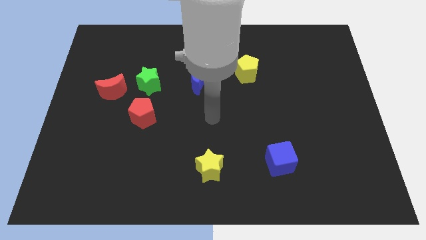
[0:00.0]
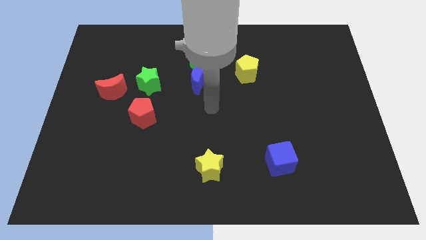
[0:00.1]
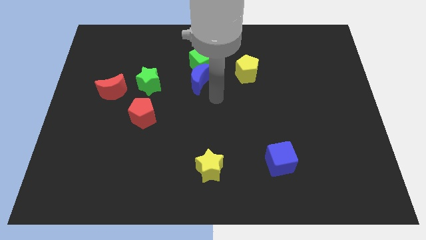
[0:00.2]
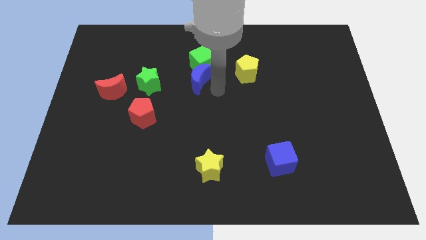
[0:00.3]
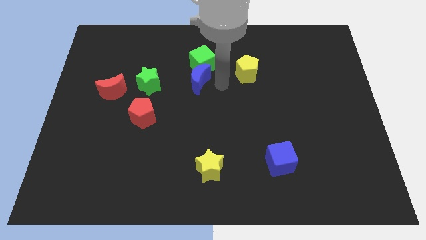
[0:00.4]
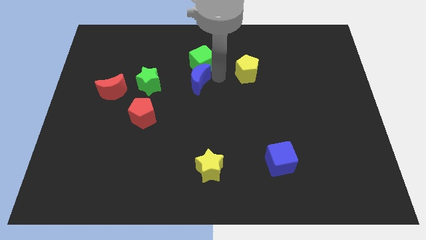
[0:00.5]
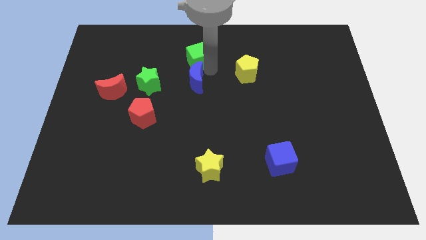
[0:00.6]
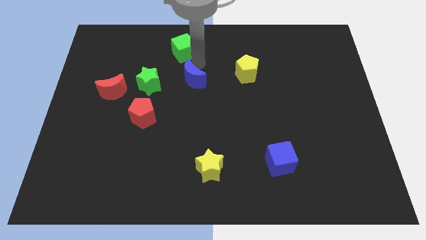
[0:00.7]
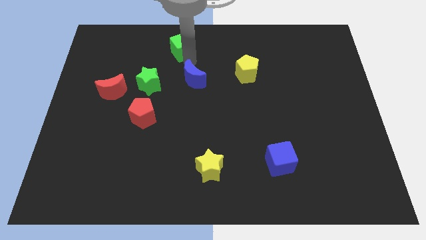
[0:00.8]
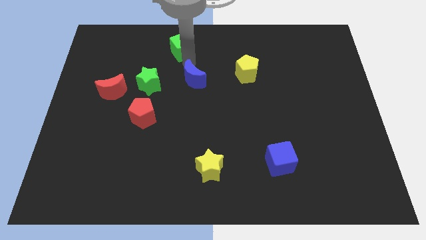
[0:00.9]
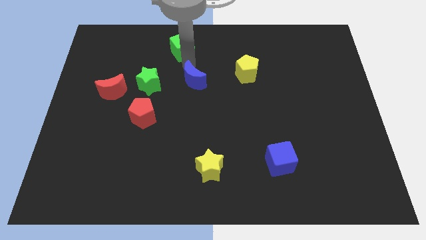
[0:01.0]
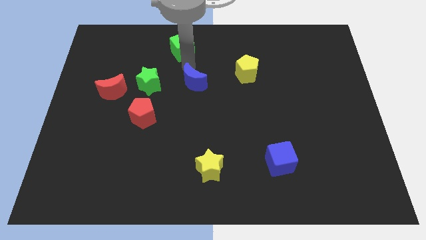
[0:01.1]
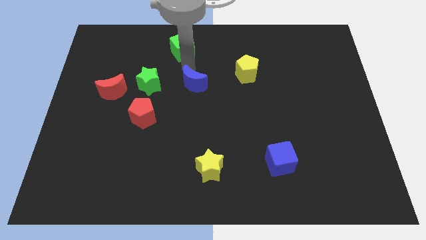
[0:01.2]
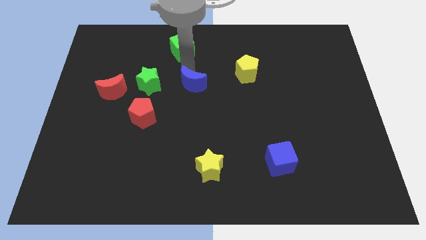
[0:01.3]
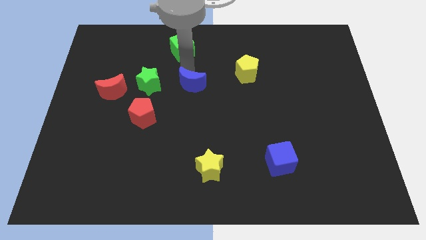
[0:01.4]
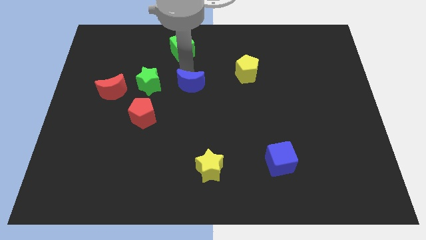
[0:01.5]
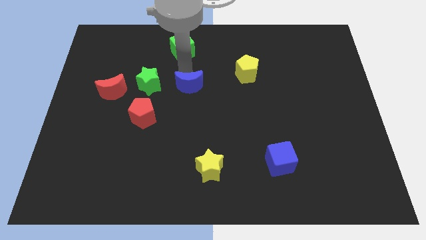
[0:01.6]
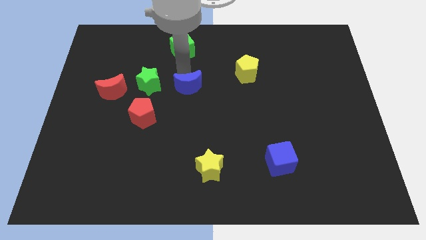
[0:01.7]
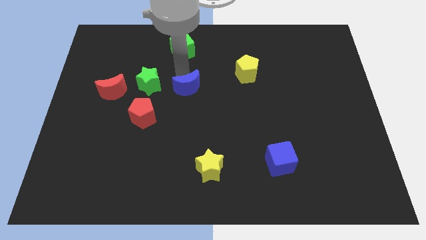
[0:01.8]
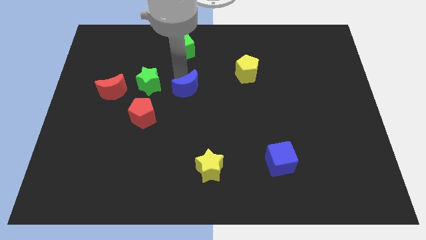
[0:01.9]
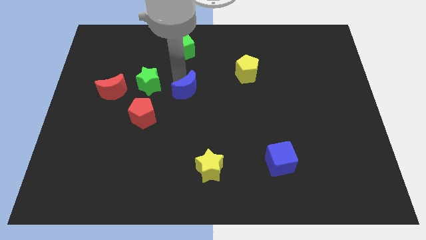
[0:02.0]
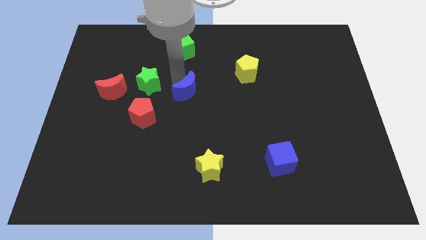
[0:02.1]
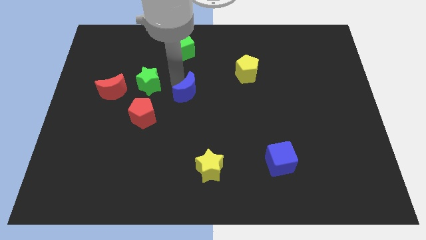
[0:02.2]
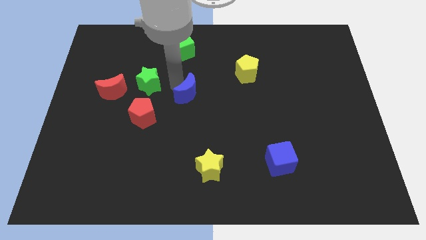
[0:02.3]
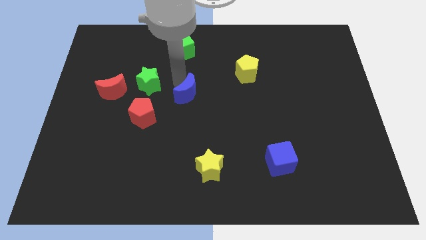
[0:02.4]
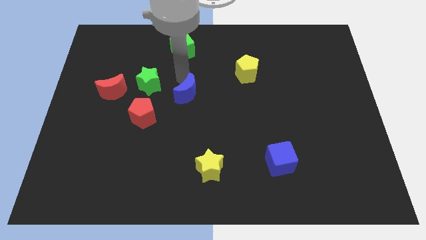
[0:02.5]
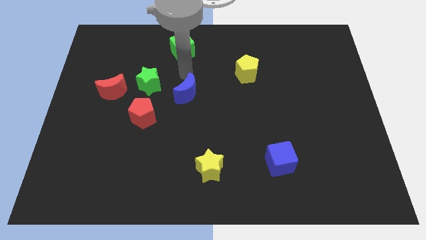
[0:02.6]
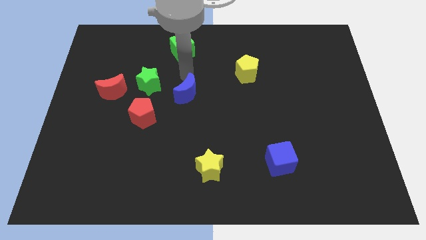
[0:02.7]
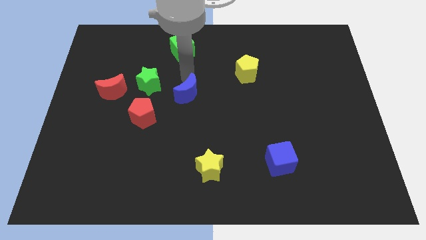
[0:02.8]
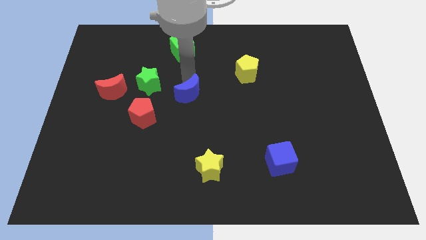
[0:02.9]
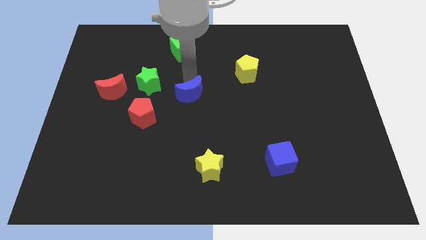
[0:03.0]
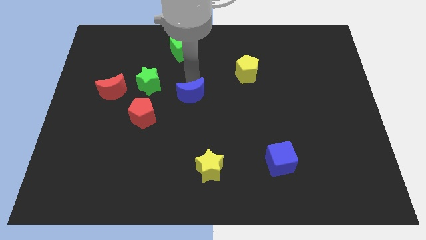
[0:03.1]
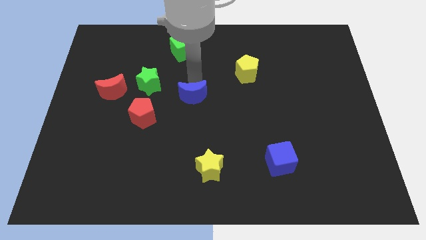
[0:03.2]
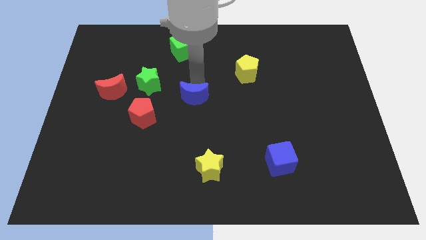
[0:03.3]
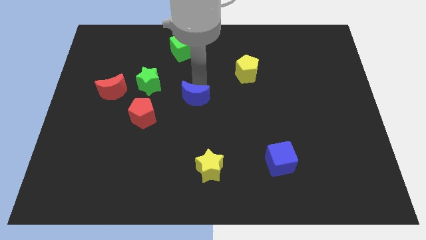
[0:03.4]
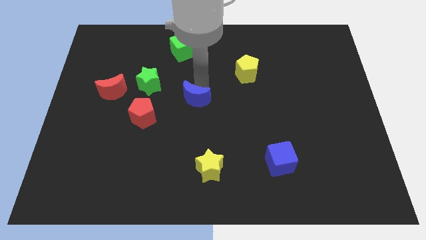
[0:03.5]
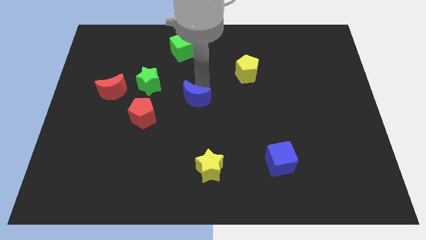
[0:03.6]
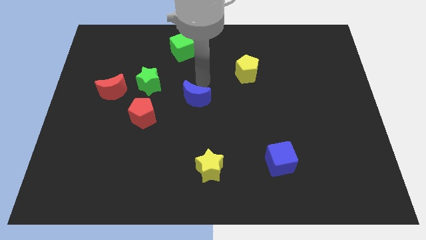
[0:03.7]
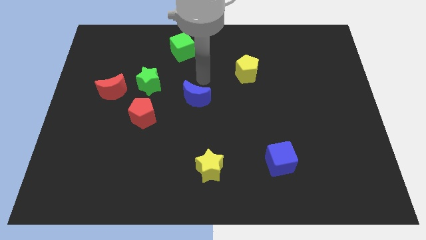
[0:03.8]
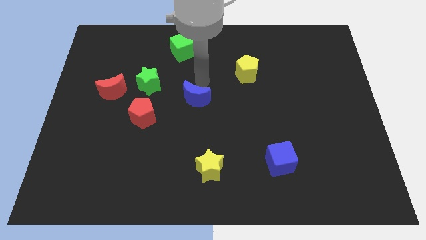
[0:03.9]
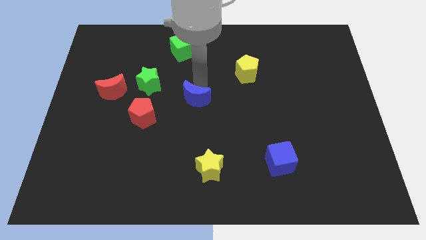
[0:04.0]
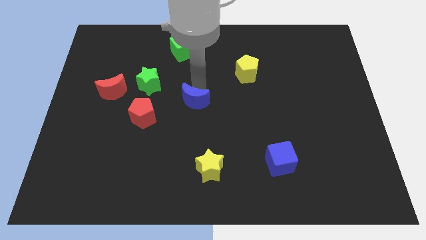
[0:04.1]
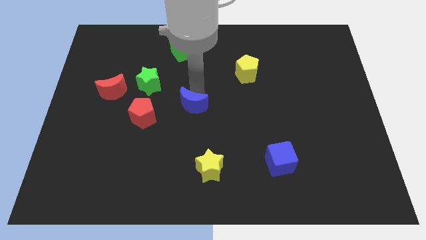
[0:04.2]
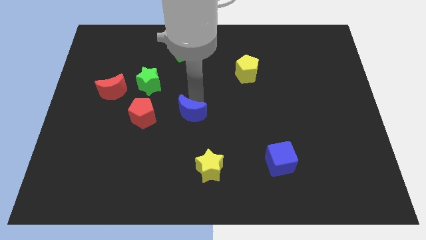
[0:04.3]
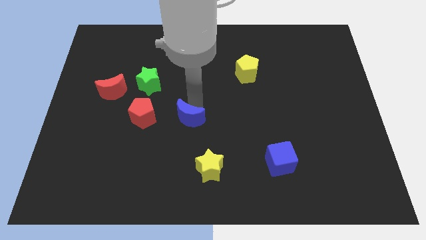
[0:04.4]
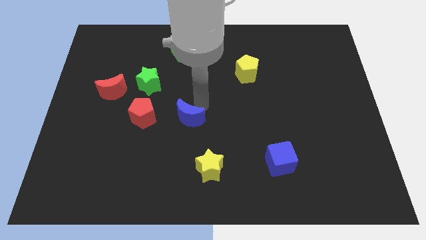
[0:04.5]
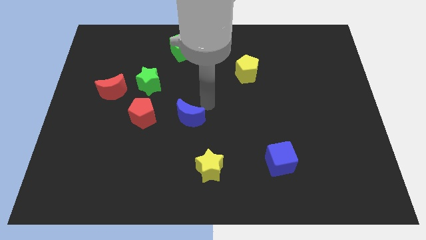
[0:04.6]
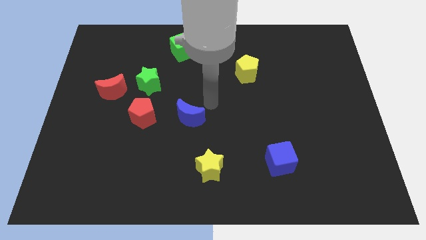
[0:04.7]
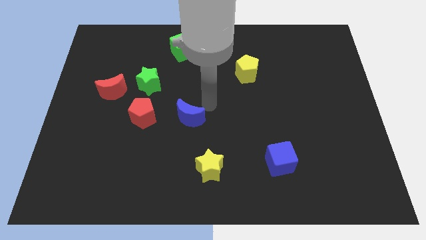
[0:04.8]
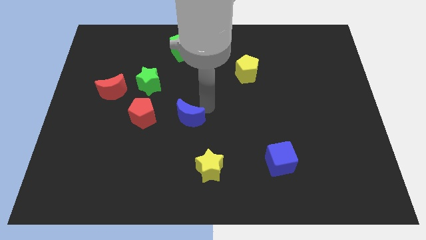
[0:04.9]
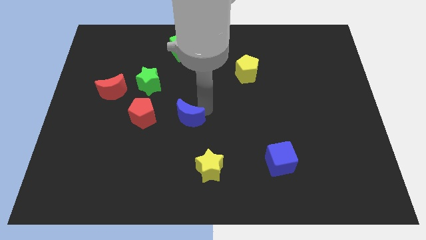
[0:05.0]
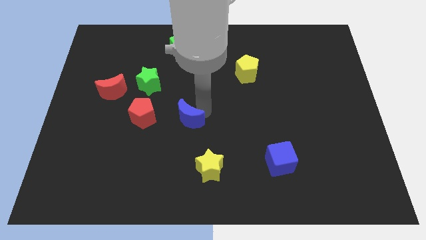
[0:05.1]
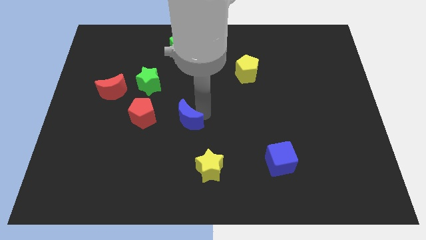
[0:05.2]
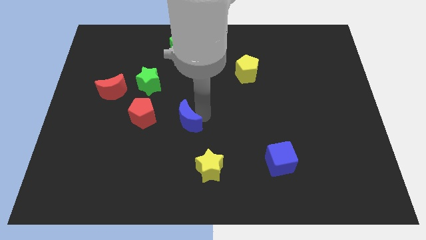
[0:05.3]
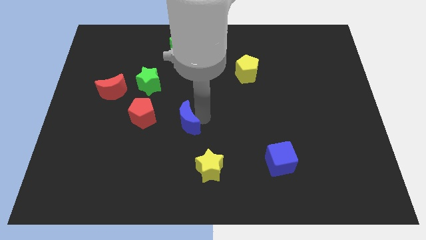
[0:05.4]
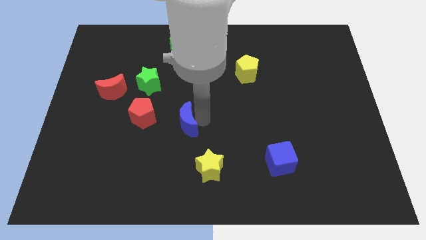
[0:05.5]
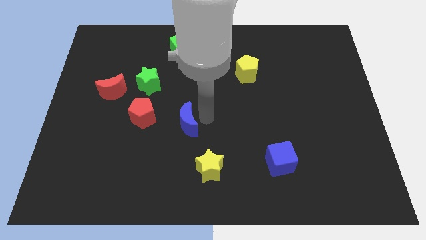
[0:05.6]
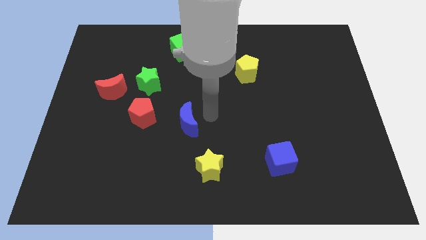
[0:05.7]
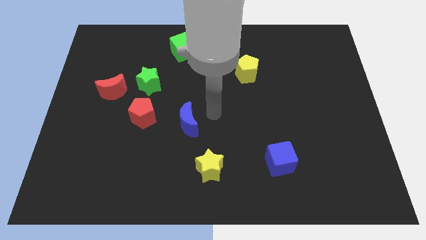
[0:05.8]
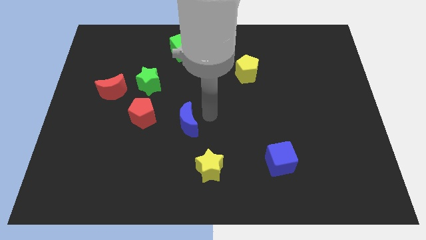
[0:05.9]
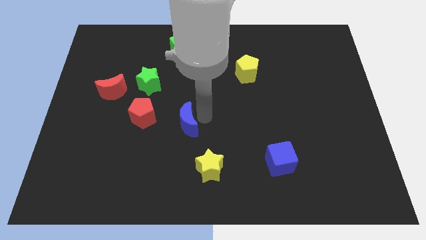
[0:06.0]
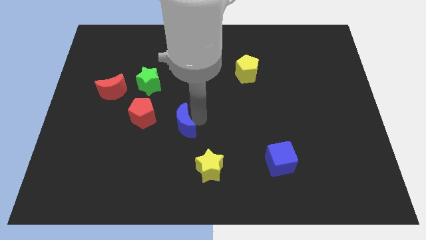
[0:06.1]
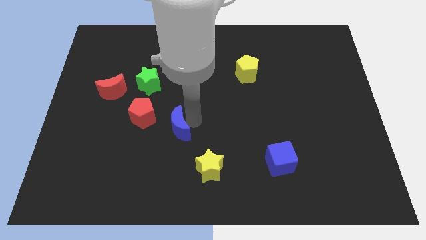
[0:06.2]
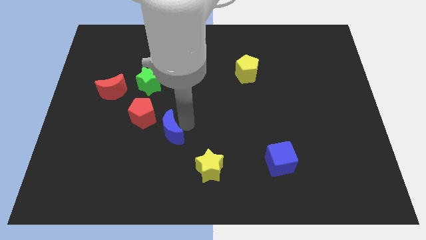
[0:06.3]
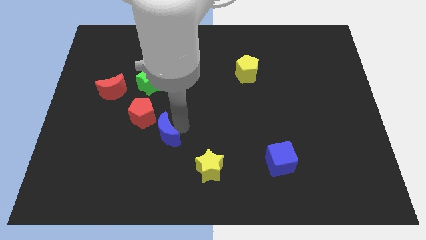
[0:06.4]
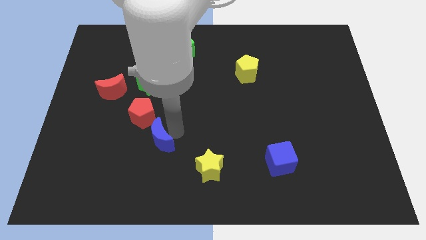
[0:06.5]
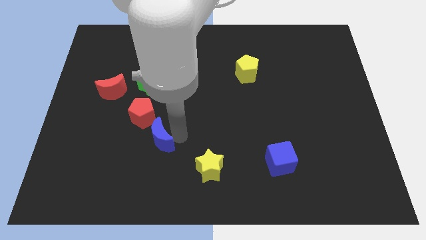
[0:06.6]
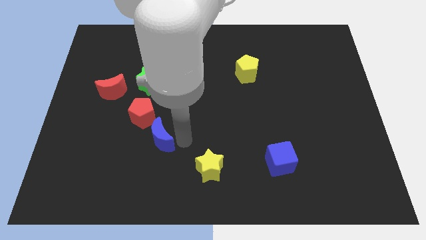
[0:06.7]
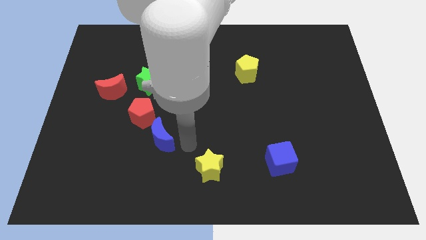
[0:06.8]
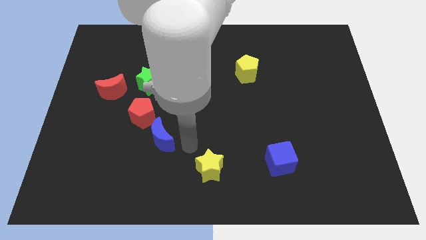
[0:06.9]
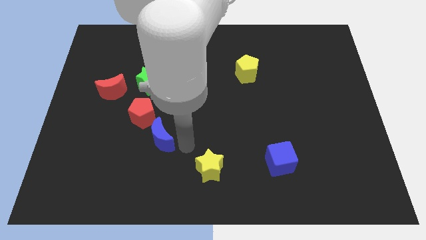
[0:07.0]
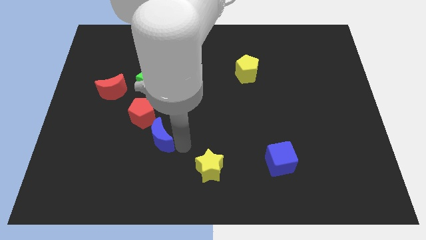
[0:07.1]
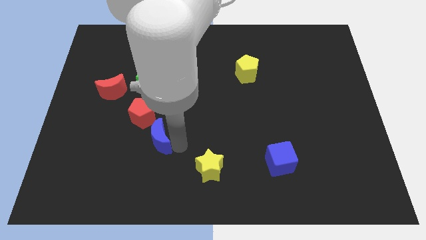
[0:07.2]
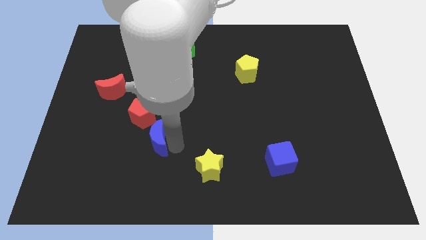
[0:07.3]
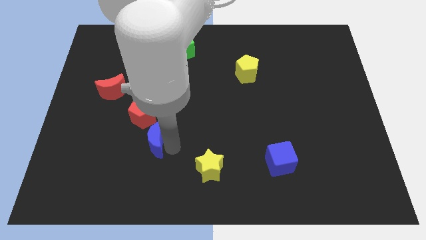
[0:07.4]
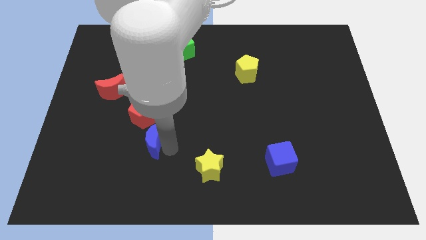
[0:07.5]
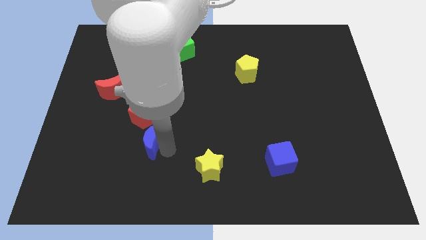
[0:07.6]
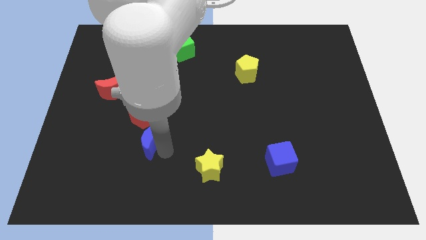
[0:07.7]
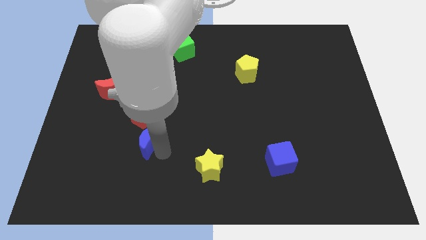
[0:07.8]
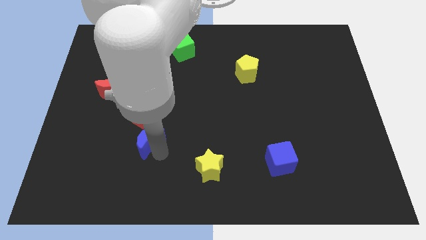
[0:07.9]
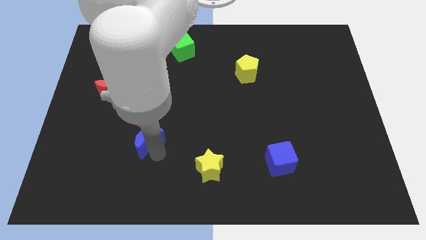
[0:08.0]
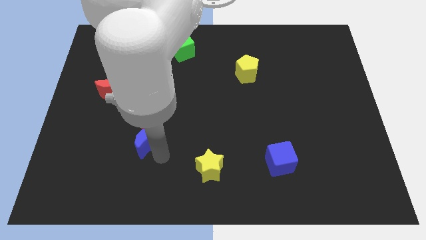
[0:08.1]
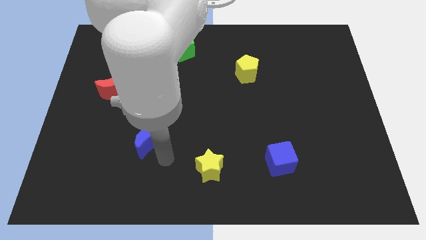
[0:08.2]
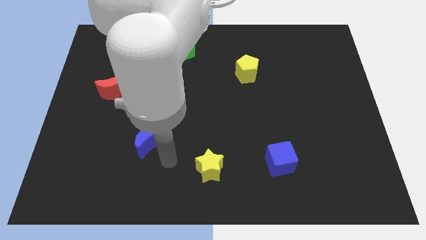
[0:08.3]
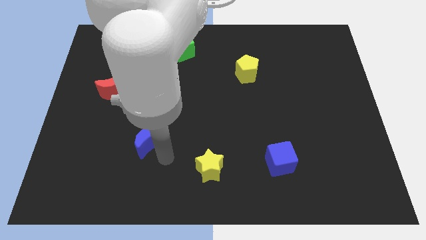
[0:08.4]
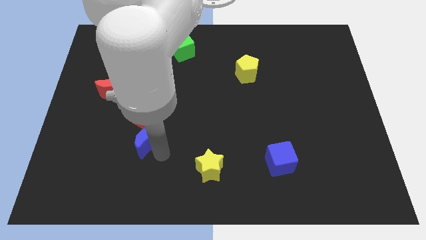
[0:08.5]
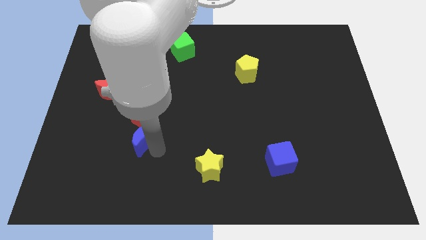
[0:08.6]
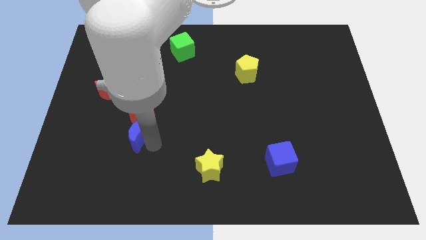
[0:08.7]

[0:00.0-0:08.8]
slide the blue moon to the bottom left side of the red pentagon
